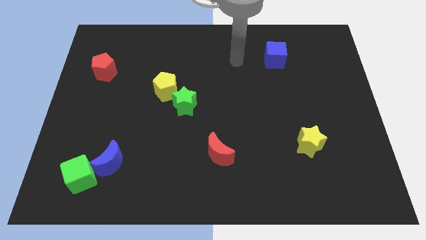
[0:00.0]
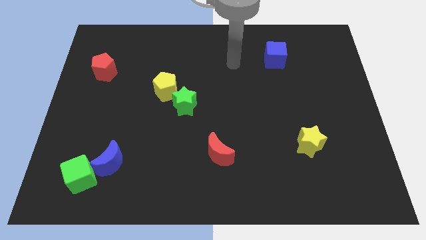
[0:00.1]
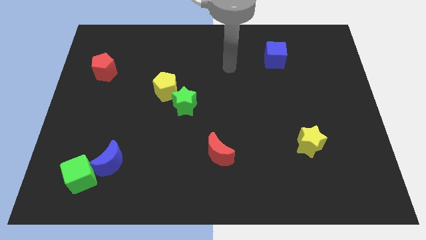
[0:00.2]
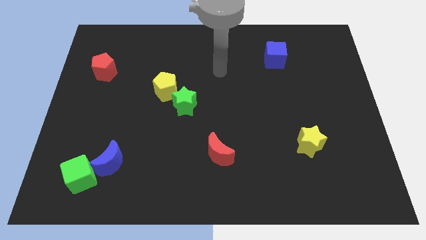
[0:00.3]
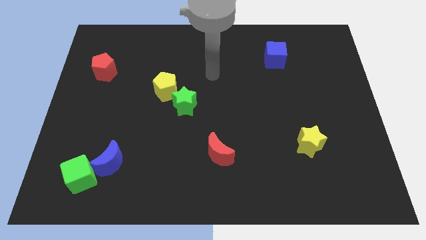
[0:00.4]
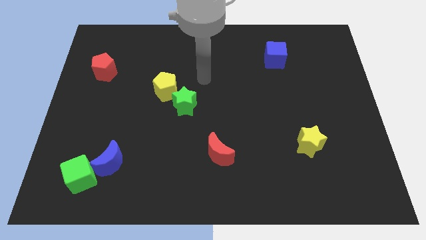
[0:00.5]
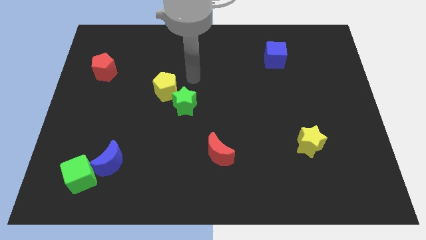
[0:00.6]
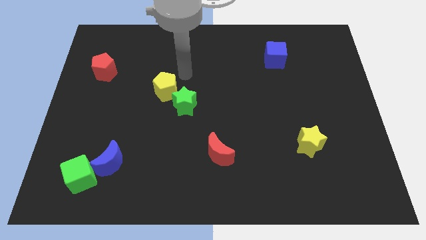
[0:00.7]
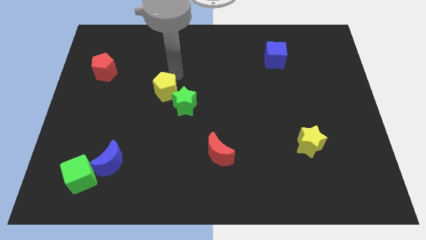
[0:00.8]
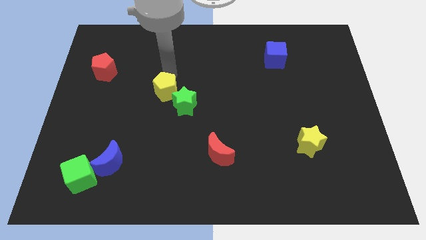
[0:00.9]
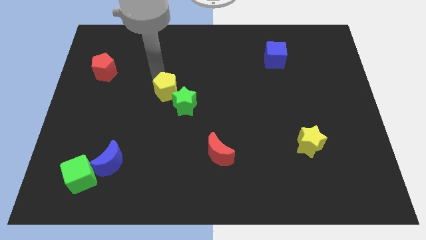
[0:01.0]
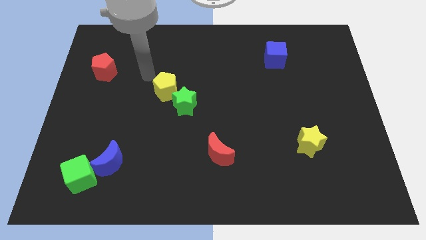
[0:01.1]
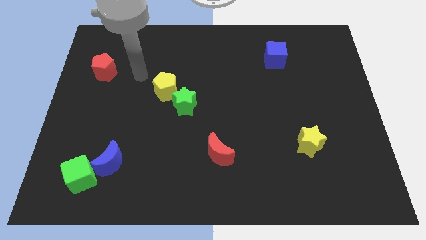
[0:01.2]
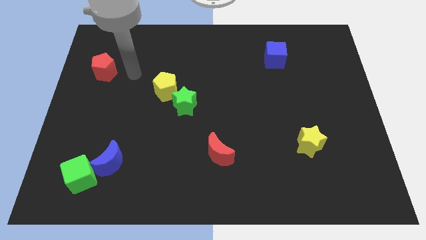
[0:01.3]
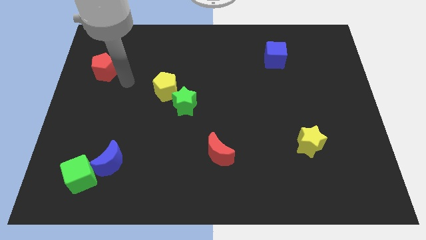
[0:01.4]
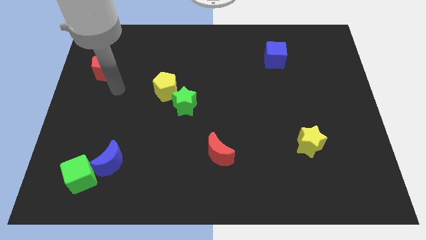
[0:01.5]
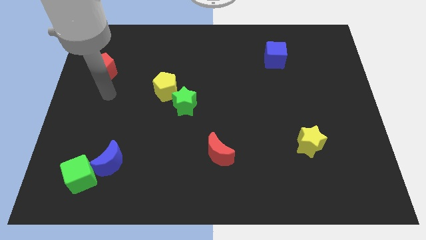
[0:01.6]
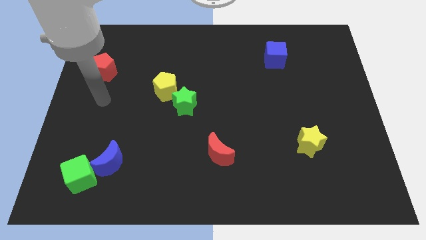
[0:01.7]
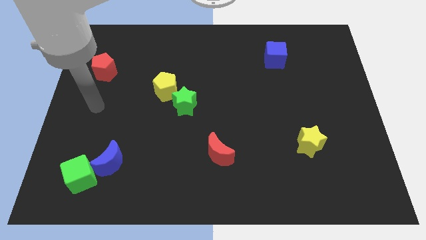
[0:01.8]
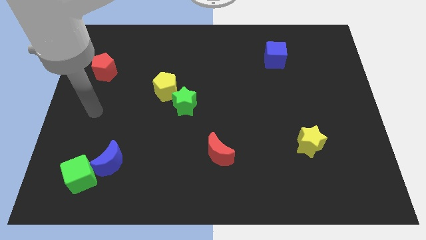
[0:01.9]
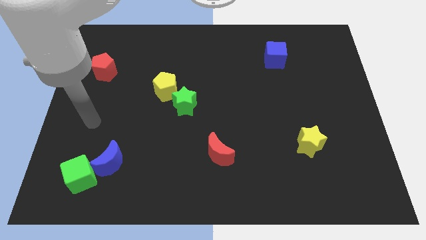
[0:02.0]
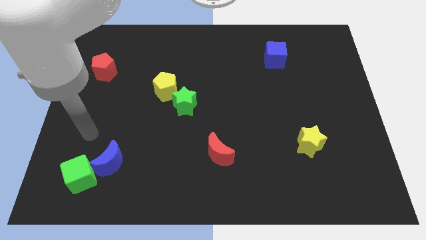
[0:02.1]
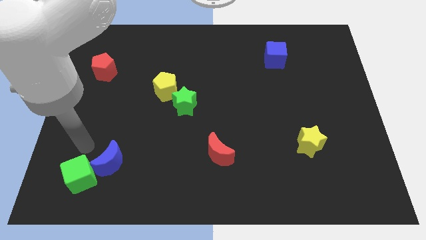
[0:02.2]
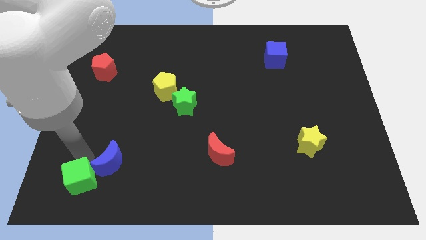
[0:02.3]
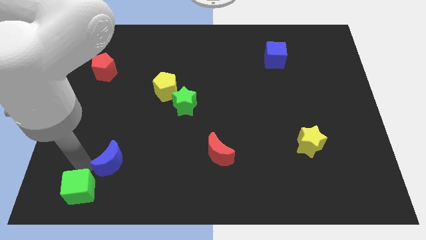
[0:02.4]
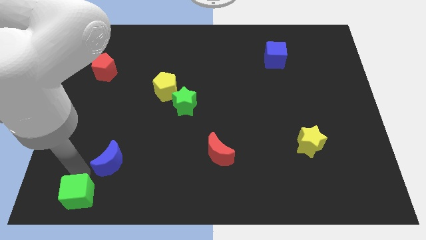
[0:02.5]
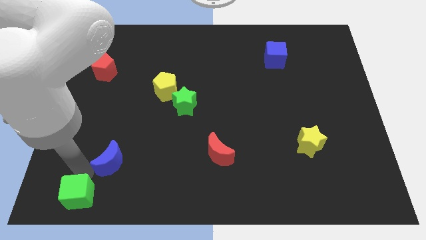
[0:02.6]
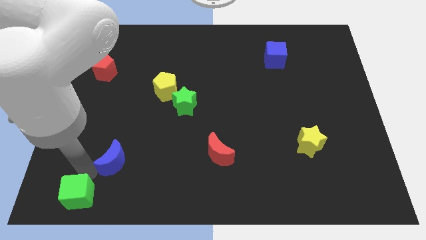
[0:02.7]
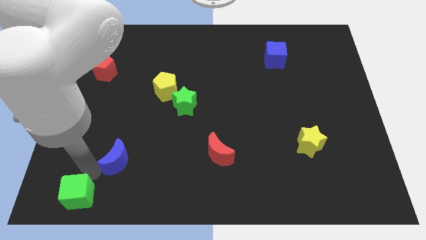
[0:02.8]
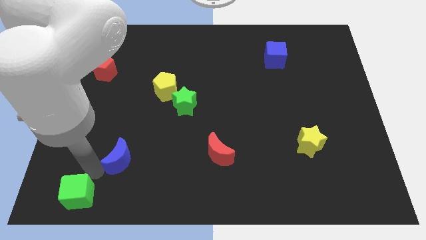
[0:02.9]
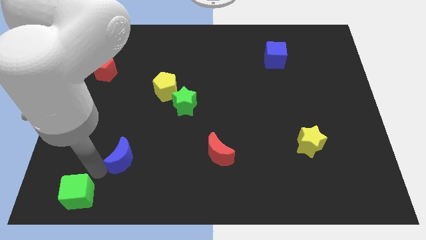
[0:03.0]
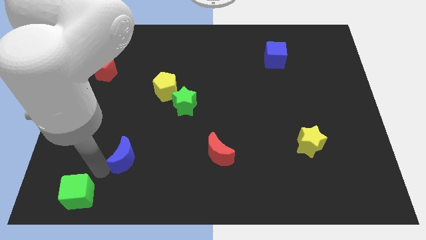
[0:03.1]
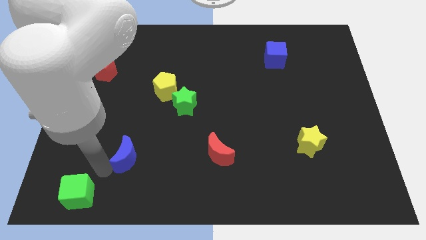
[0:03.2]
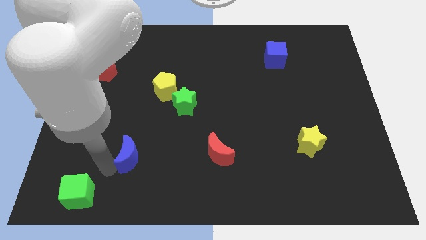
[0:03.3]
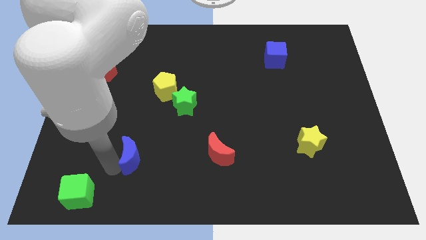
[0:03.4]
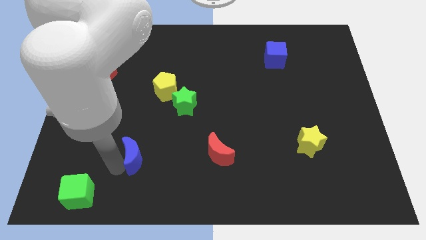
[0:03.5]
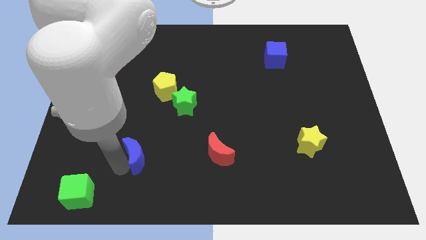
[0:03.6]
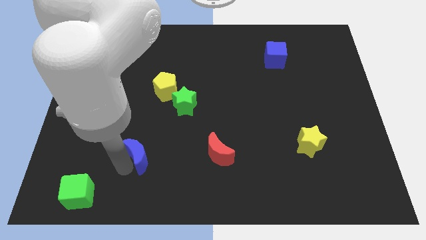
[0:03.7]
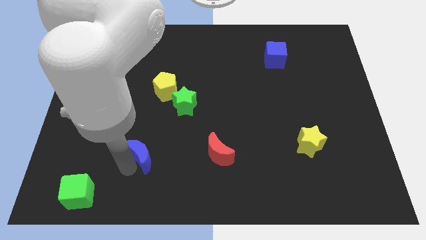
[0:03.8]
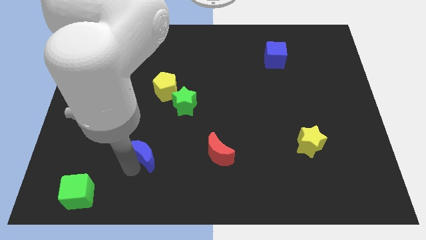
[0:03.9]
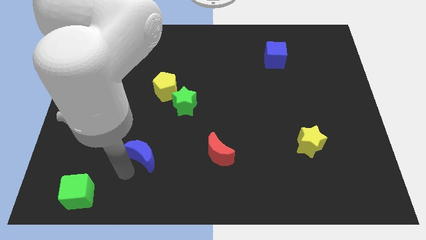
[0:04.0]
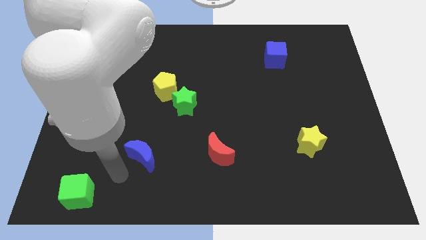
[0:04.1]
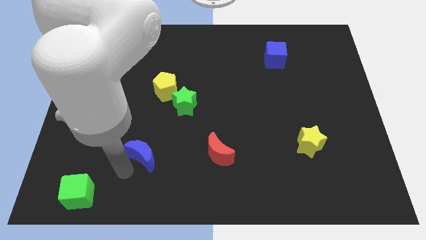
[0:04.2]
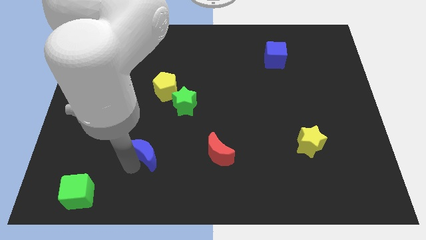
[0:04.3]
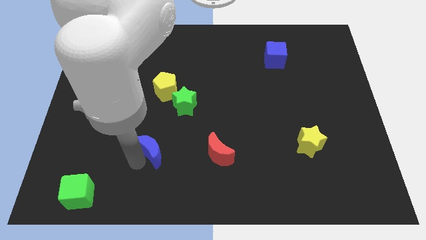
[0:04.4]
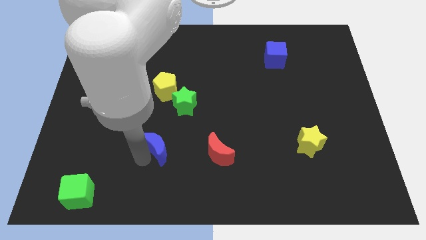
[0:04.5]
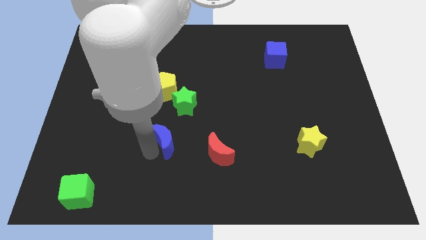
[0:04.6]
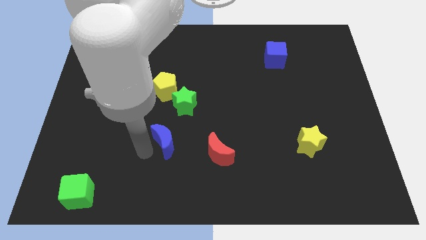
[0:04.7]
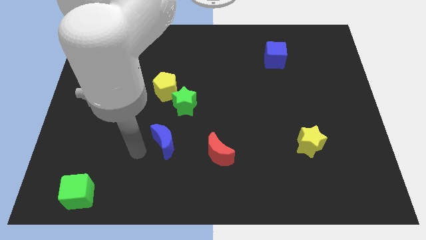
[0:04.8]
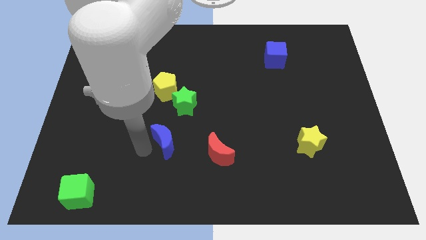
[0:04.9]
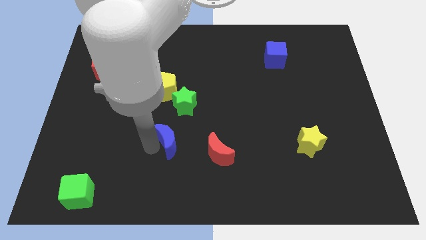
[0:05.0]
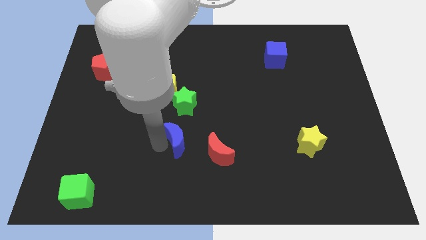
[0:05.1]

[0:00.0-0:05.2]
move the blue moon to the top left of the red moon

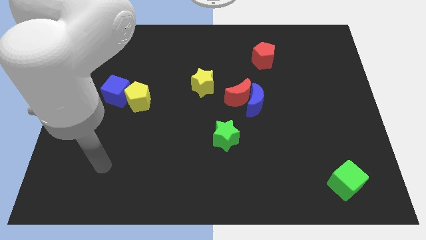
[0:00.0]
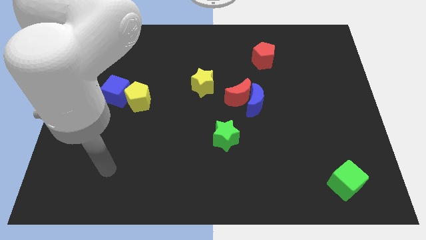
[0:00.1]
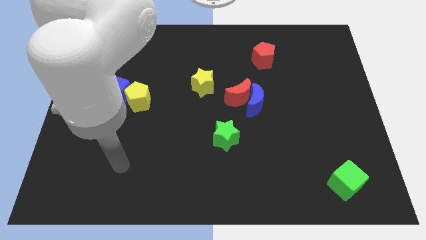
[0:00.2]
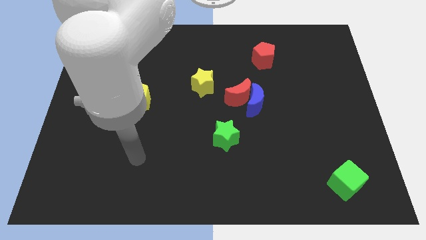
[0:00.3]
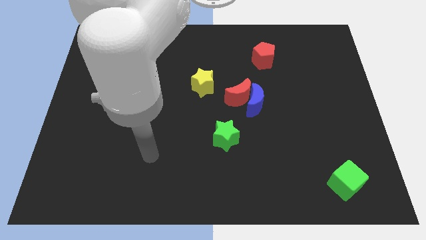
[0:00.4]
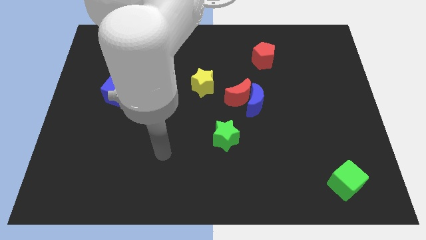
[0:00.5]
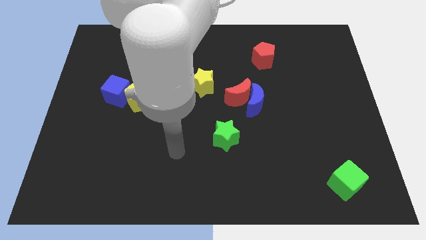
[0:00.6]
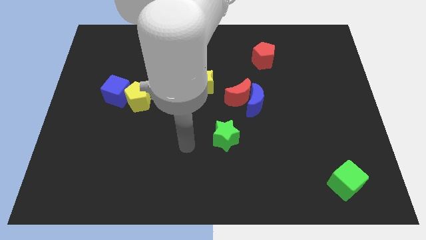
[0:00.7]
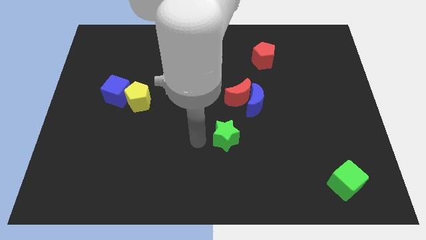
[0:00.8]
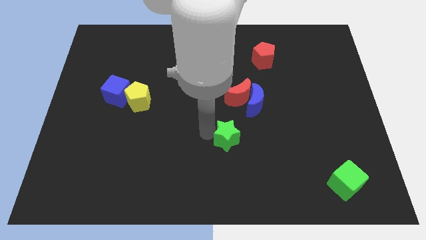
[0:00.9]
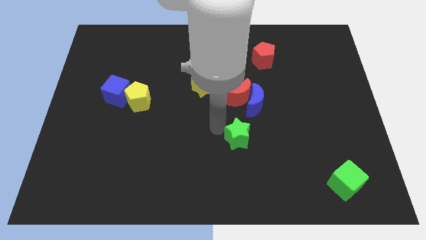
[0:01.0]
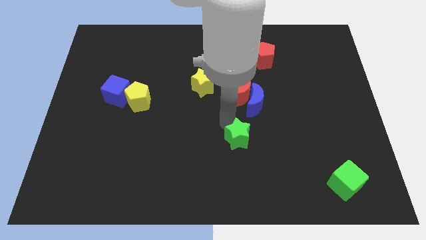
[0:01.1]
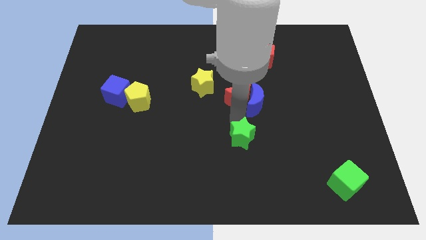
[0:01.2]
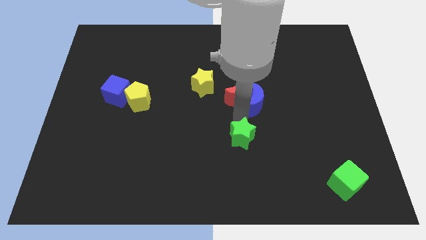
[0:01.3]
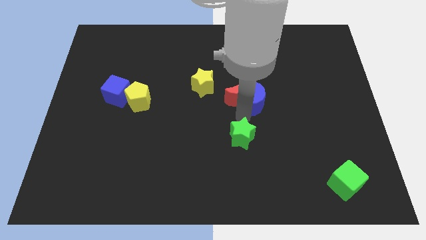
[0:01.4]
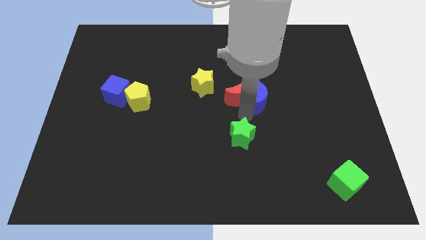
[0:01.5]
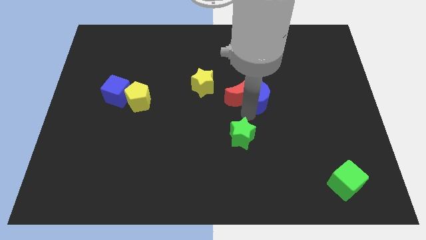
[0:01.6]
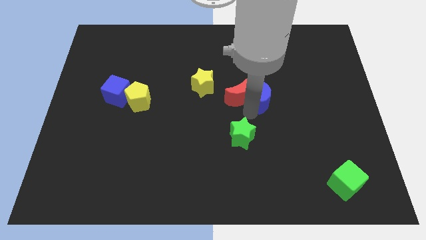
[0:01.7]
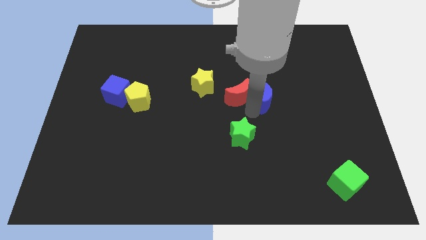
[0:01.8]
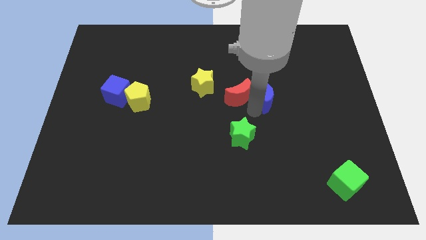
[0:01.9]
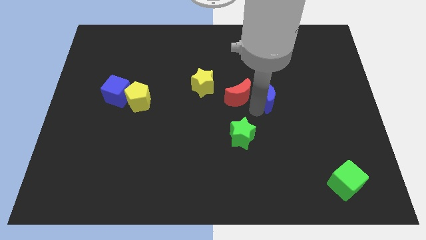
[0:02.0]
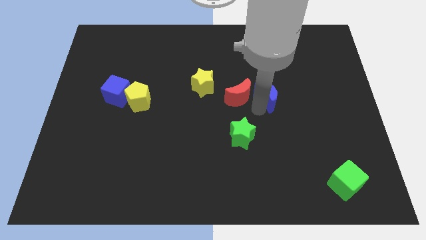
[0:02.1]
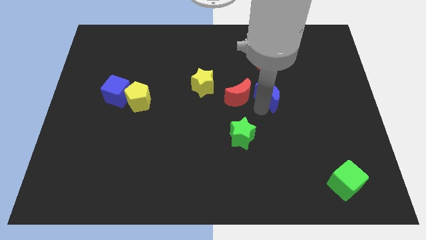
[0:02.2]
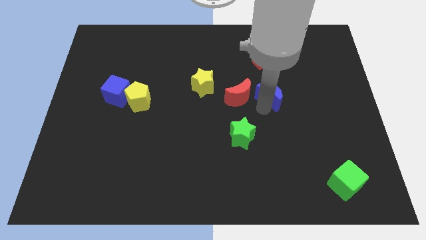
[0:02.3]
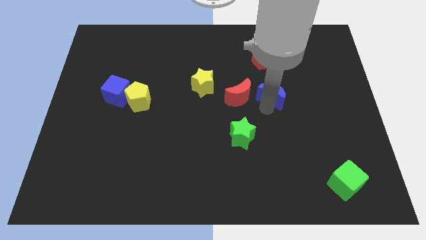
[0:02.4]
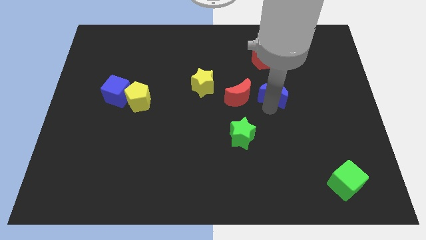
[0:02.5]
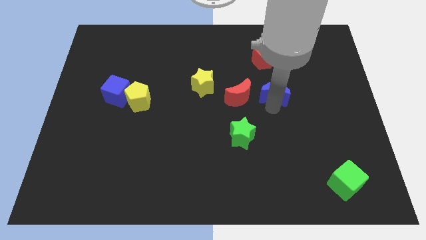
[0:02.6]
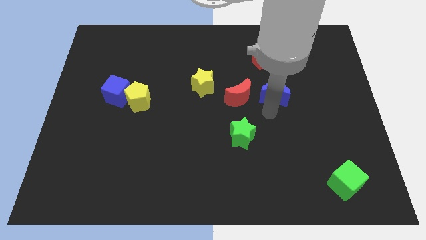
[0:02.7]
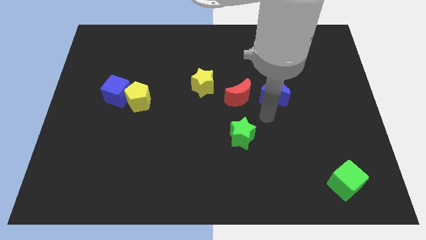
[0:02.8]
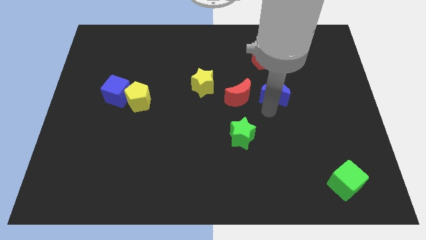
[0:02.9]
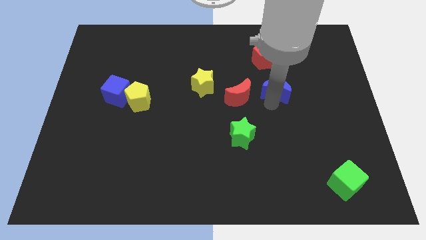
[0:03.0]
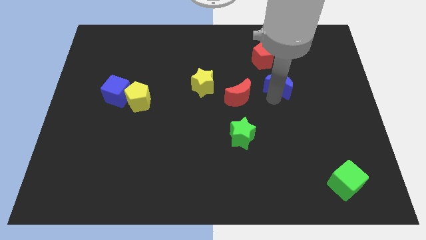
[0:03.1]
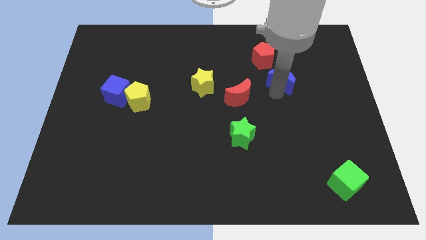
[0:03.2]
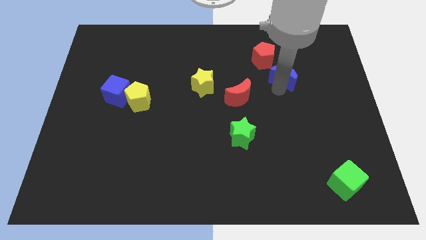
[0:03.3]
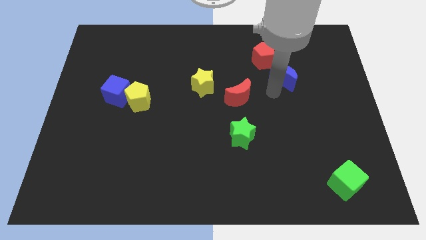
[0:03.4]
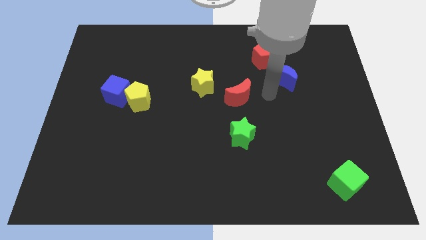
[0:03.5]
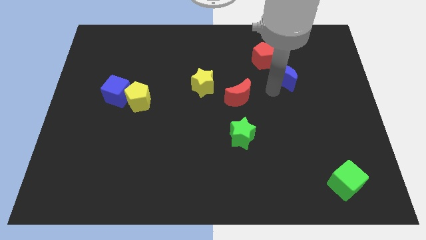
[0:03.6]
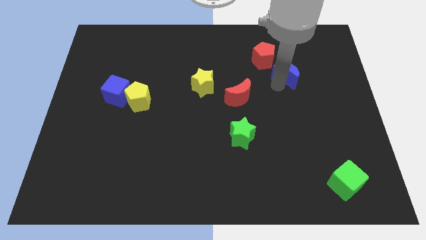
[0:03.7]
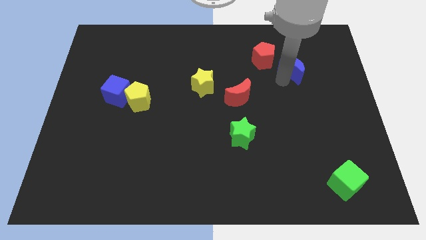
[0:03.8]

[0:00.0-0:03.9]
push the blue moon to the right of the red pentagon
